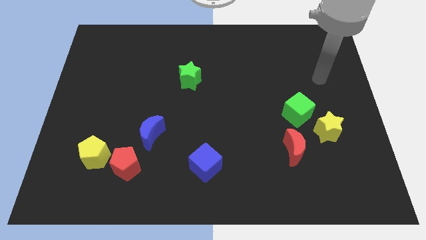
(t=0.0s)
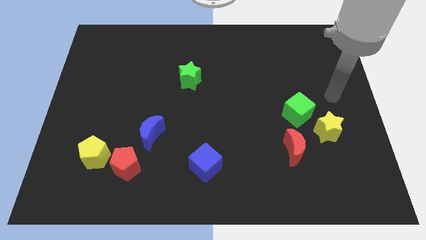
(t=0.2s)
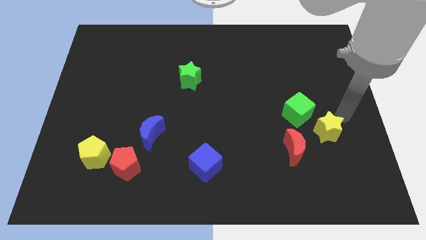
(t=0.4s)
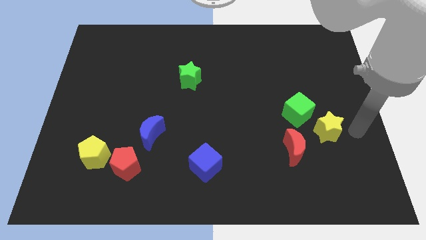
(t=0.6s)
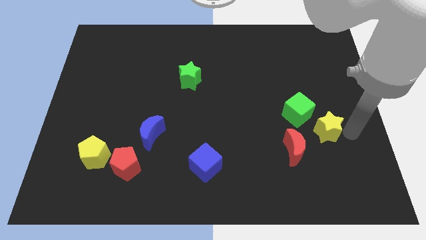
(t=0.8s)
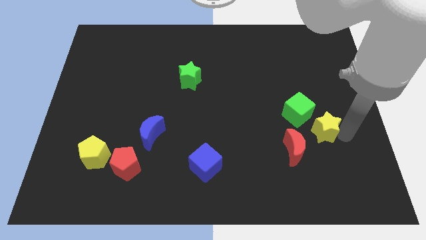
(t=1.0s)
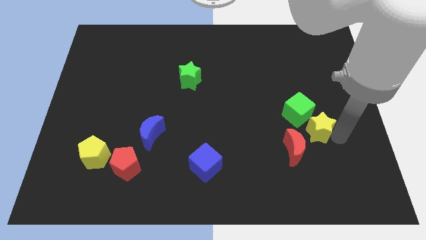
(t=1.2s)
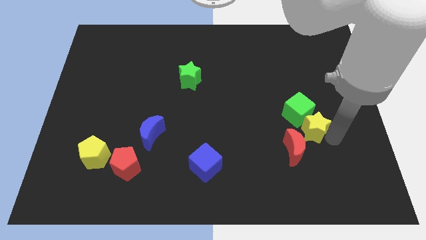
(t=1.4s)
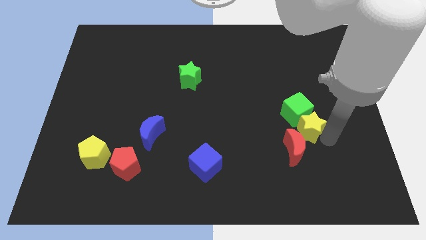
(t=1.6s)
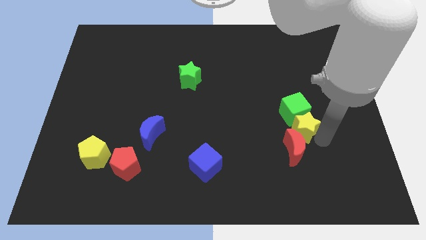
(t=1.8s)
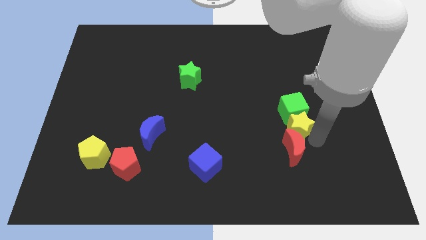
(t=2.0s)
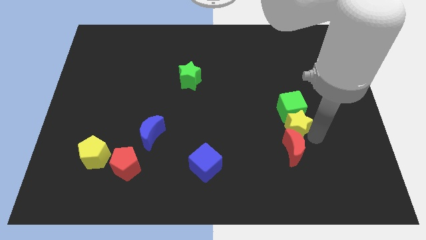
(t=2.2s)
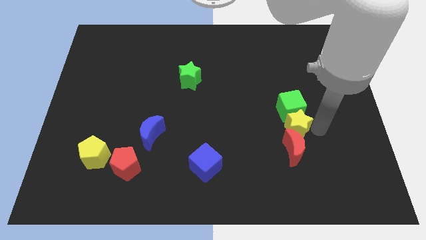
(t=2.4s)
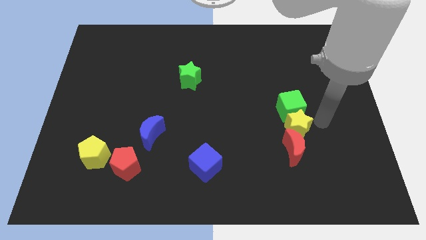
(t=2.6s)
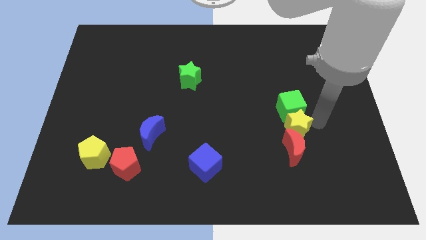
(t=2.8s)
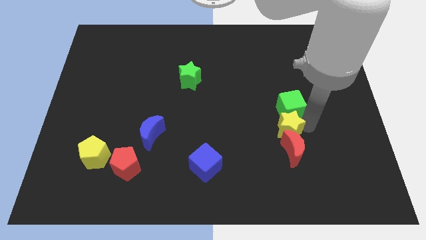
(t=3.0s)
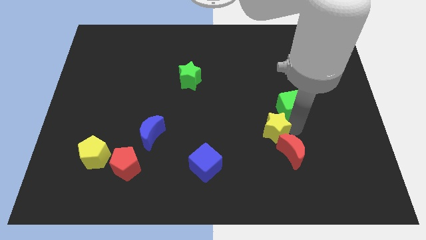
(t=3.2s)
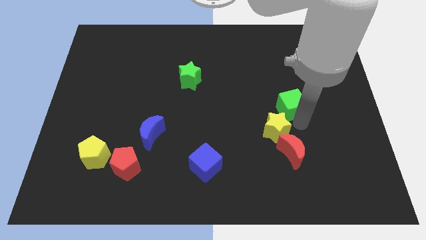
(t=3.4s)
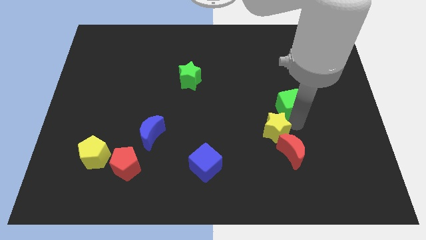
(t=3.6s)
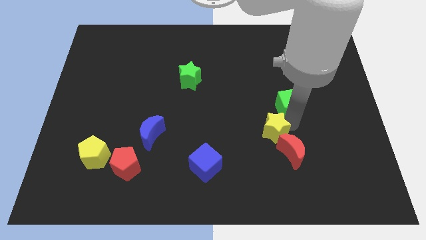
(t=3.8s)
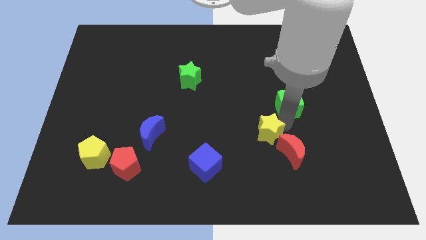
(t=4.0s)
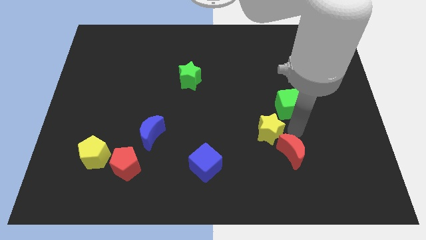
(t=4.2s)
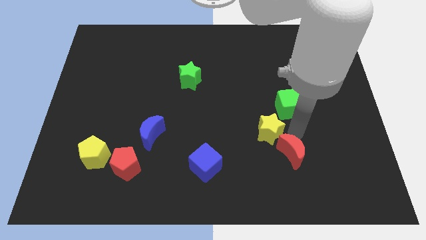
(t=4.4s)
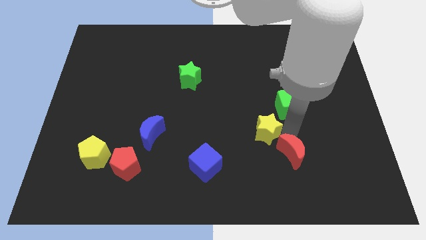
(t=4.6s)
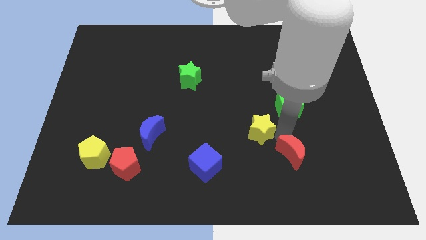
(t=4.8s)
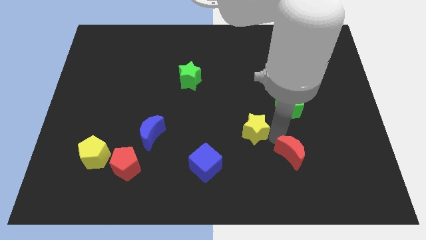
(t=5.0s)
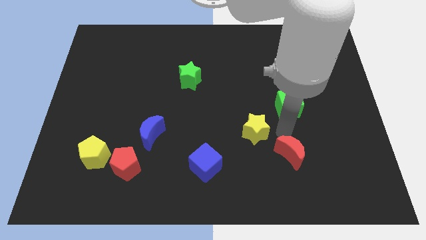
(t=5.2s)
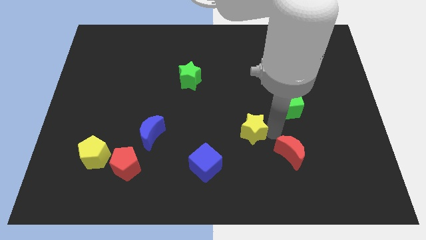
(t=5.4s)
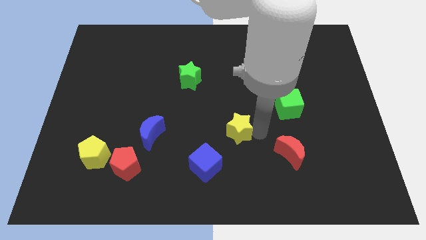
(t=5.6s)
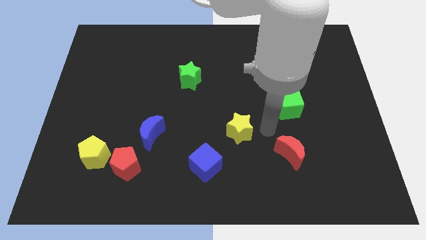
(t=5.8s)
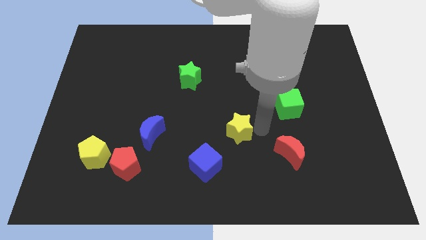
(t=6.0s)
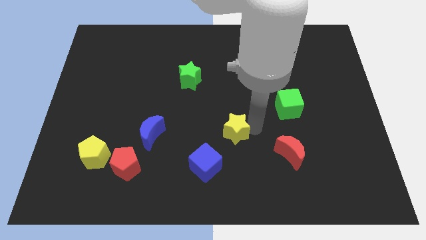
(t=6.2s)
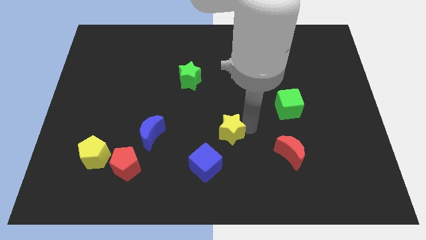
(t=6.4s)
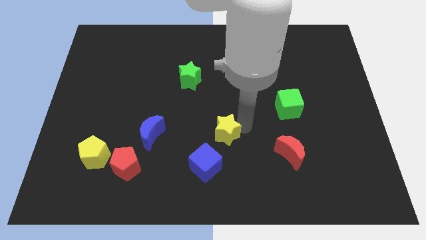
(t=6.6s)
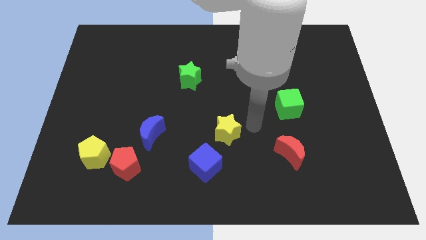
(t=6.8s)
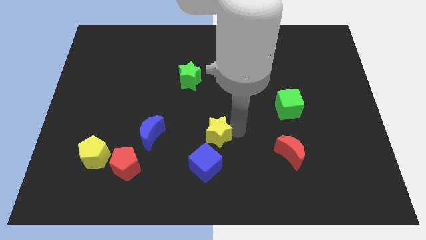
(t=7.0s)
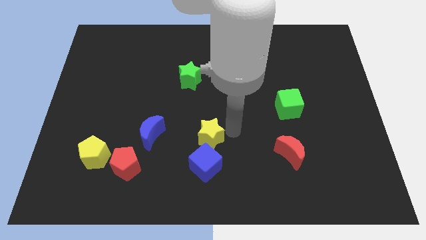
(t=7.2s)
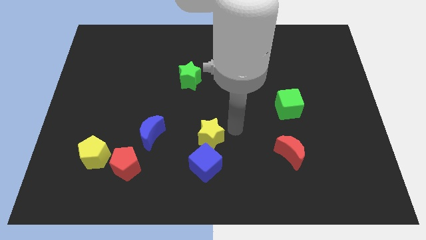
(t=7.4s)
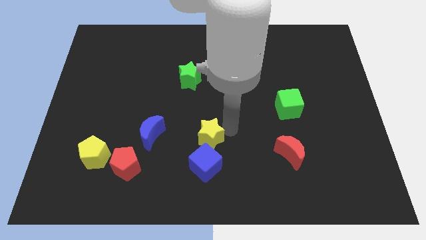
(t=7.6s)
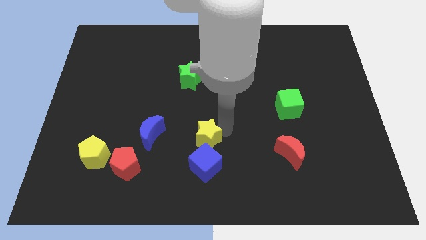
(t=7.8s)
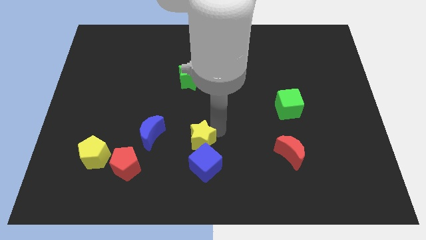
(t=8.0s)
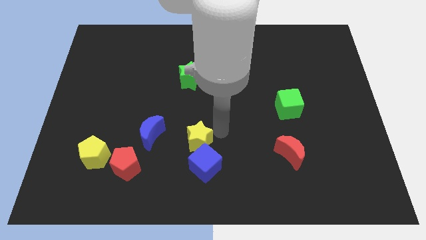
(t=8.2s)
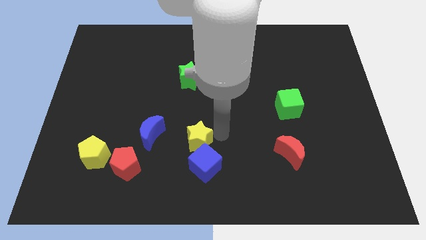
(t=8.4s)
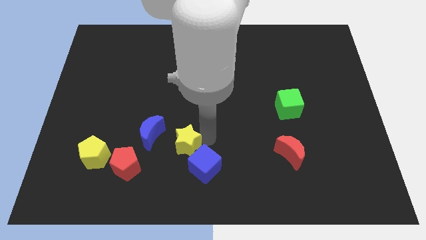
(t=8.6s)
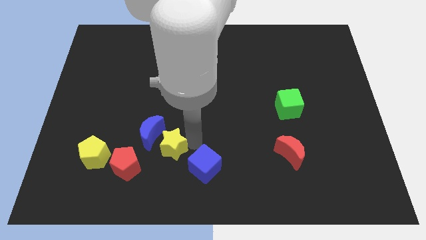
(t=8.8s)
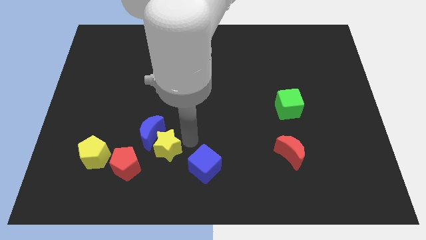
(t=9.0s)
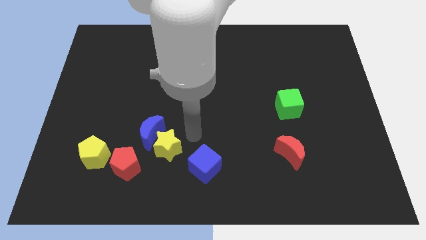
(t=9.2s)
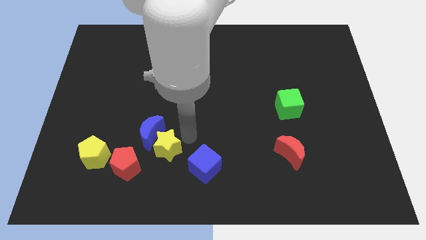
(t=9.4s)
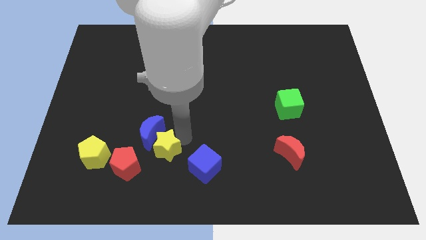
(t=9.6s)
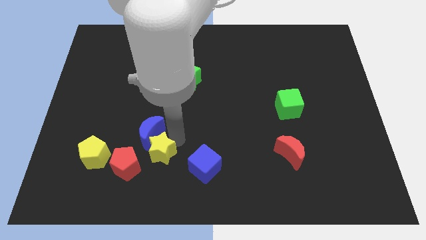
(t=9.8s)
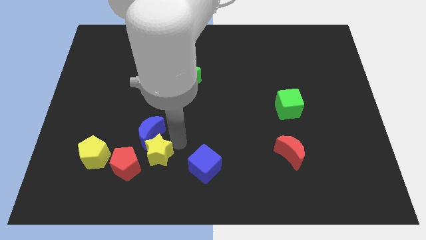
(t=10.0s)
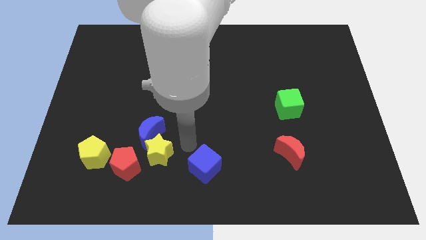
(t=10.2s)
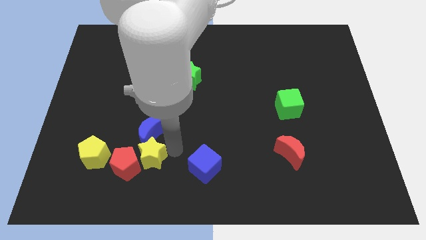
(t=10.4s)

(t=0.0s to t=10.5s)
push the yellow star towards the red pentagon

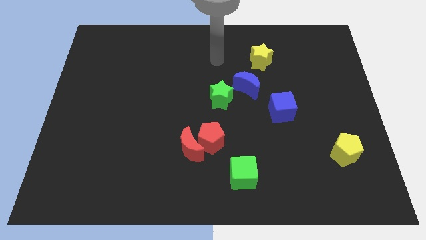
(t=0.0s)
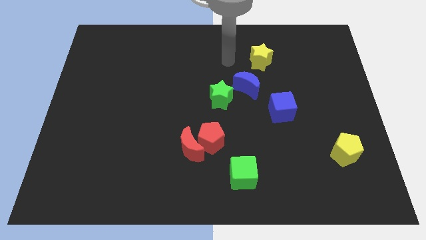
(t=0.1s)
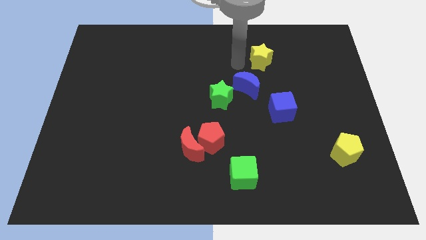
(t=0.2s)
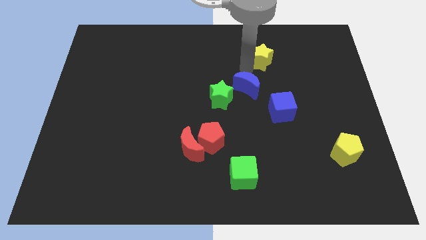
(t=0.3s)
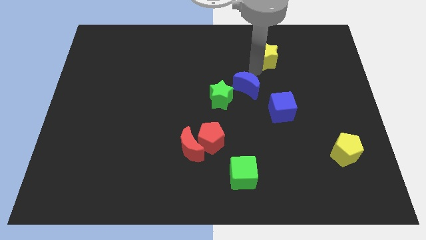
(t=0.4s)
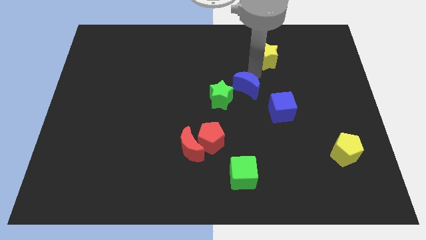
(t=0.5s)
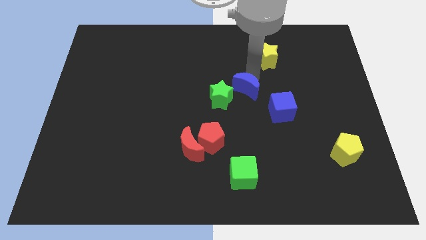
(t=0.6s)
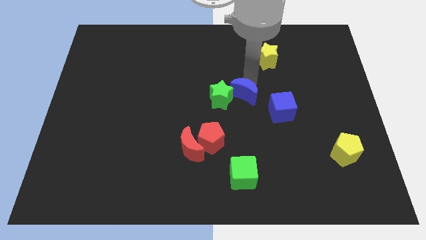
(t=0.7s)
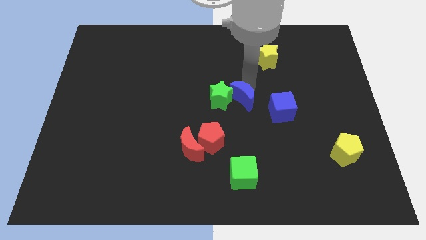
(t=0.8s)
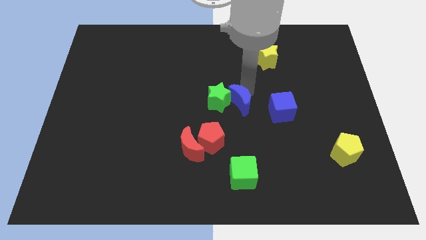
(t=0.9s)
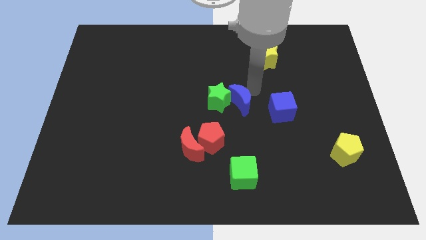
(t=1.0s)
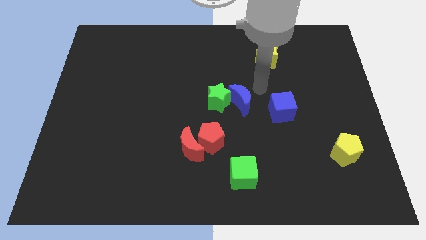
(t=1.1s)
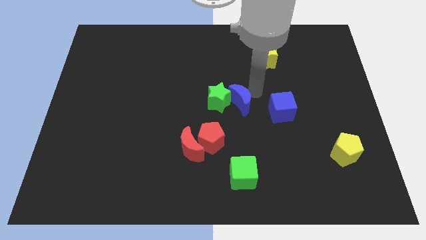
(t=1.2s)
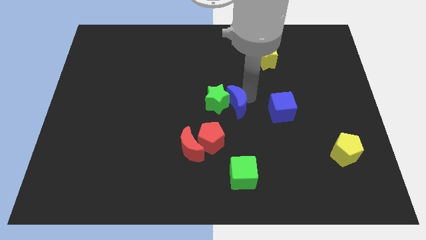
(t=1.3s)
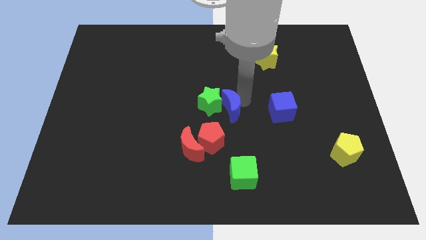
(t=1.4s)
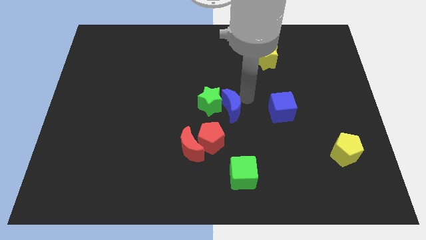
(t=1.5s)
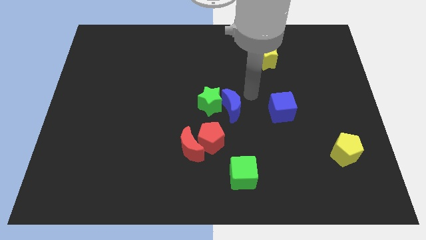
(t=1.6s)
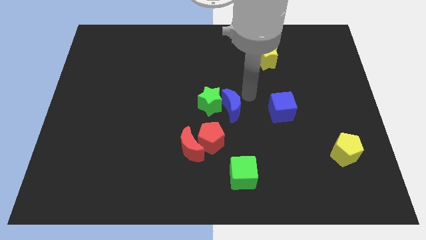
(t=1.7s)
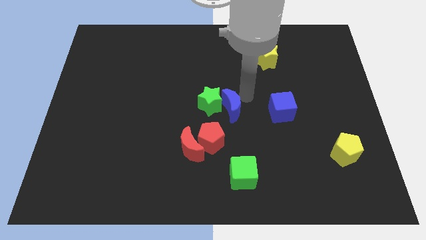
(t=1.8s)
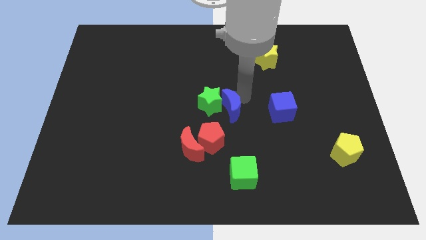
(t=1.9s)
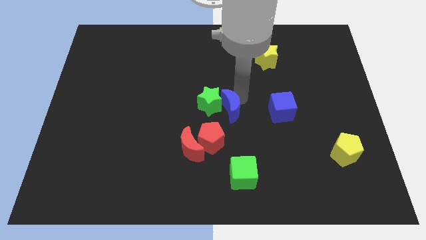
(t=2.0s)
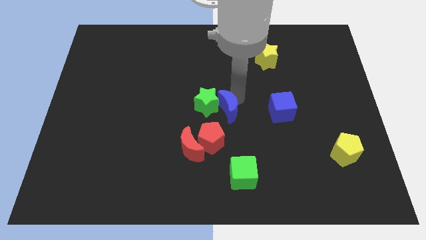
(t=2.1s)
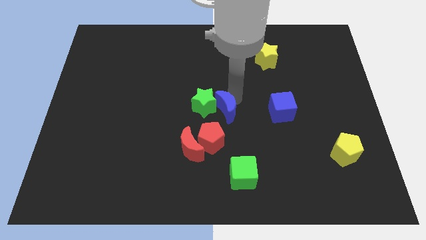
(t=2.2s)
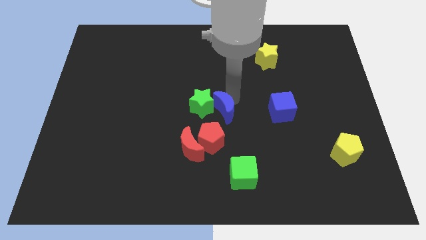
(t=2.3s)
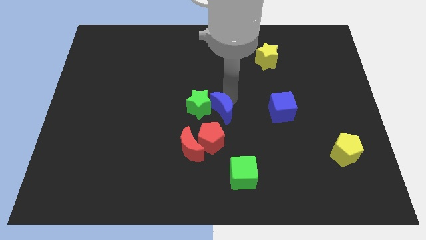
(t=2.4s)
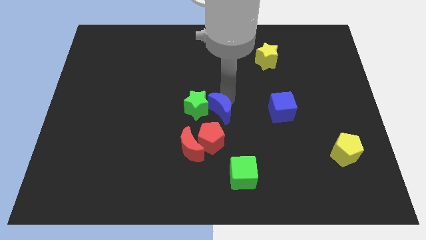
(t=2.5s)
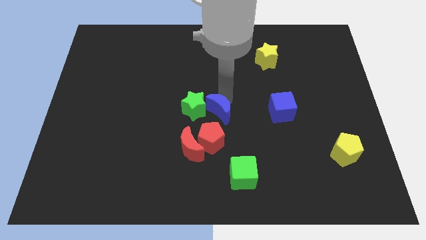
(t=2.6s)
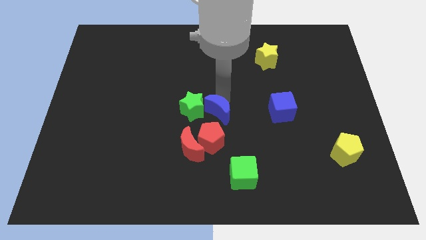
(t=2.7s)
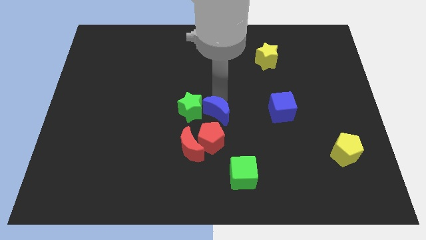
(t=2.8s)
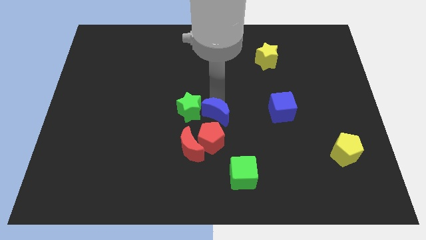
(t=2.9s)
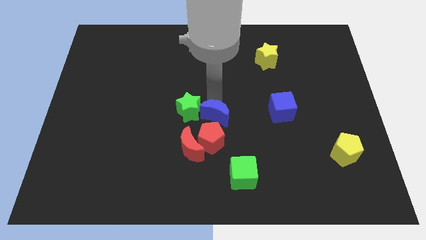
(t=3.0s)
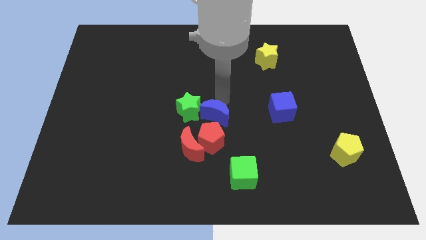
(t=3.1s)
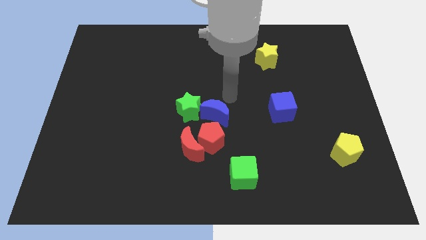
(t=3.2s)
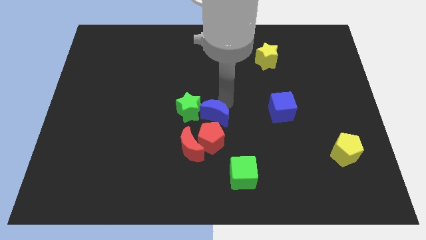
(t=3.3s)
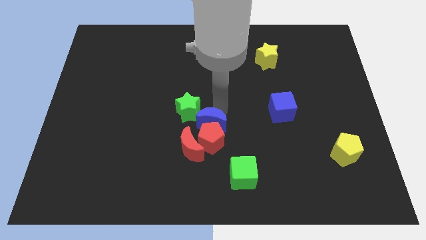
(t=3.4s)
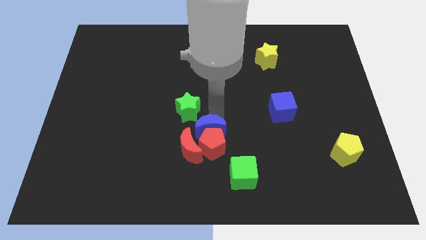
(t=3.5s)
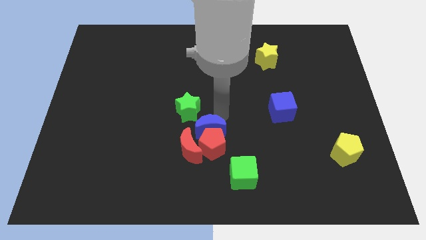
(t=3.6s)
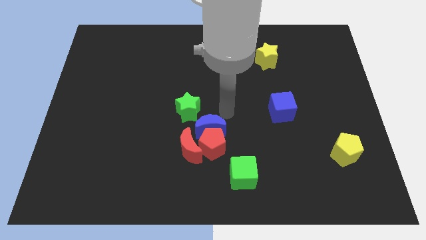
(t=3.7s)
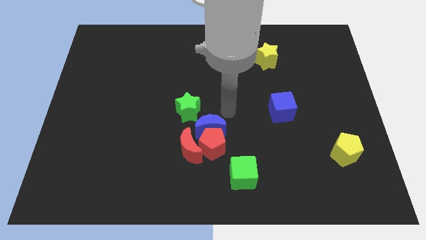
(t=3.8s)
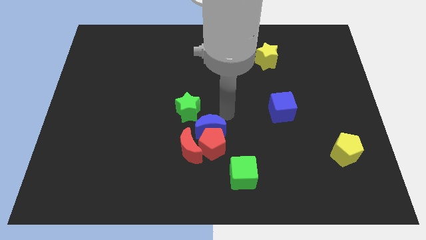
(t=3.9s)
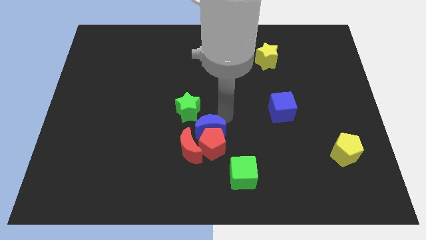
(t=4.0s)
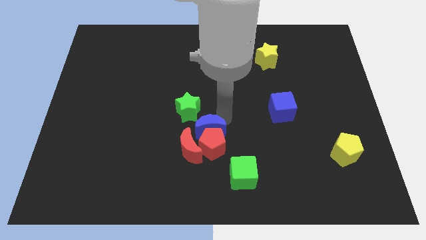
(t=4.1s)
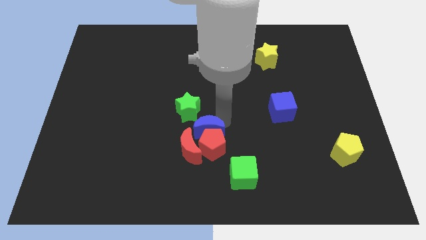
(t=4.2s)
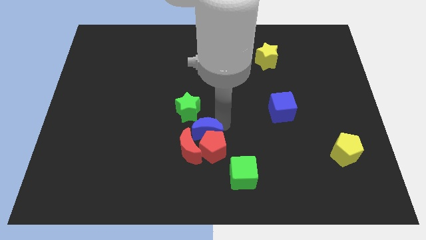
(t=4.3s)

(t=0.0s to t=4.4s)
put the blue moon to the red moon
